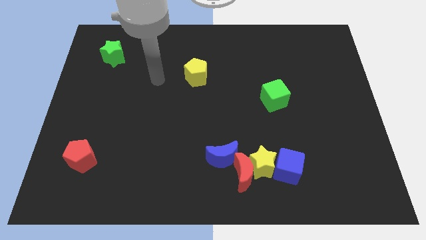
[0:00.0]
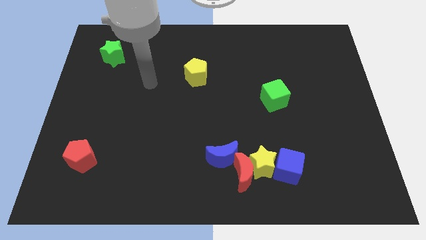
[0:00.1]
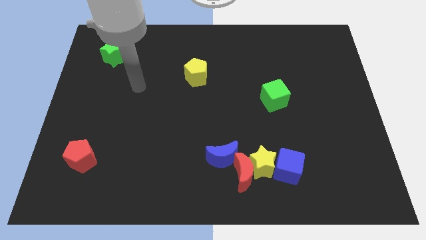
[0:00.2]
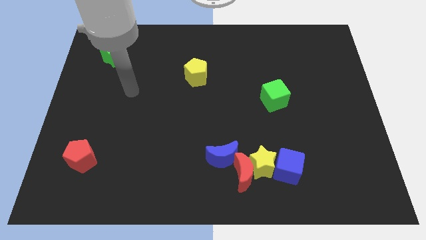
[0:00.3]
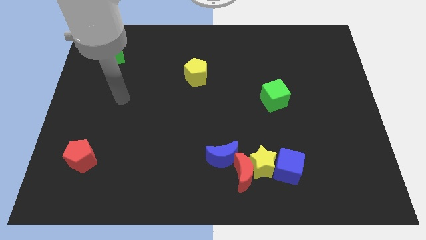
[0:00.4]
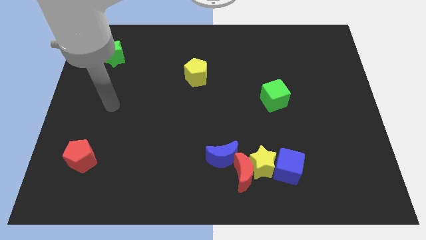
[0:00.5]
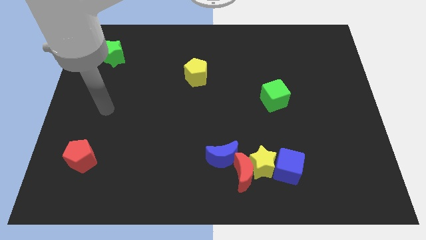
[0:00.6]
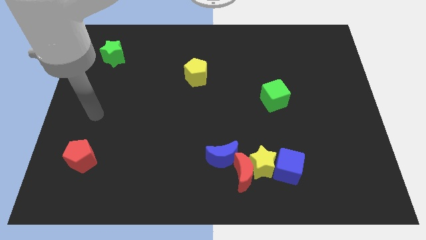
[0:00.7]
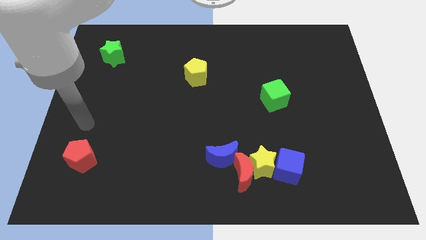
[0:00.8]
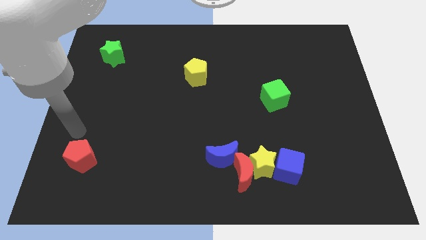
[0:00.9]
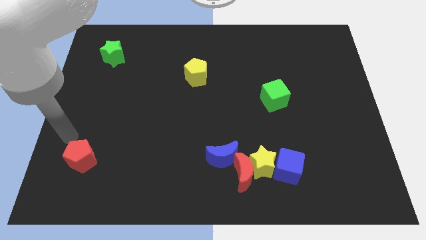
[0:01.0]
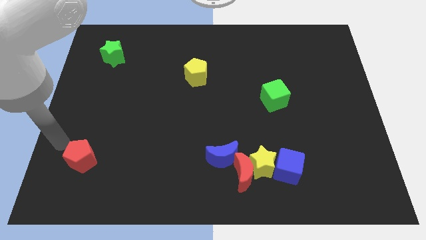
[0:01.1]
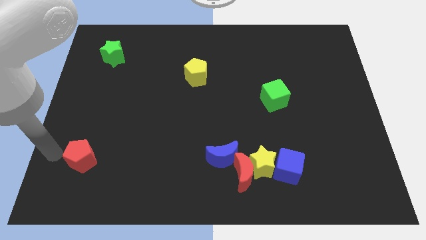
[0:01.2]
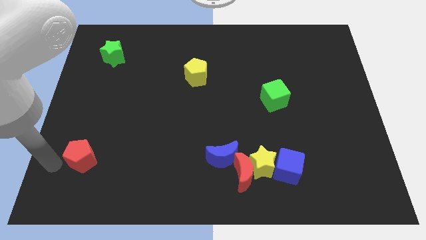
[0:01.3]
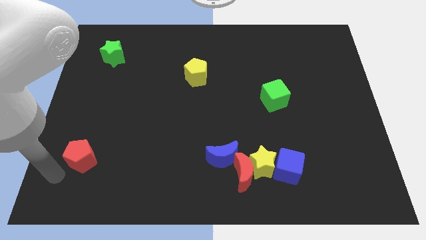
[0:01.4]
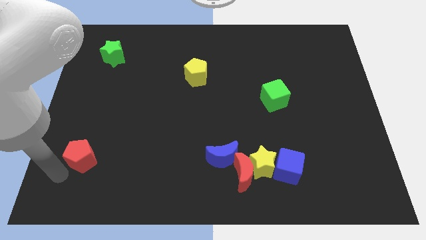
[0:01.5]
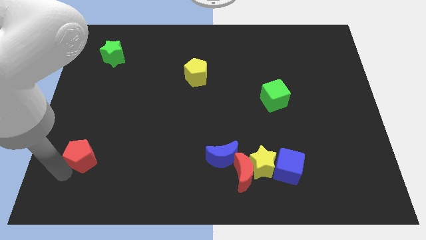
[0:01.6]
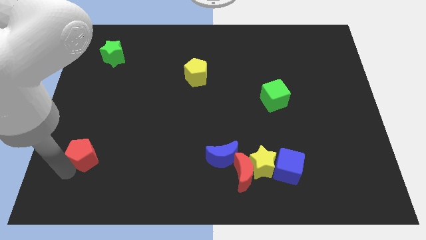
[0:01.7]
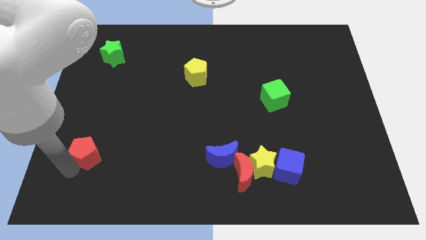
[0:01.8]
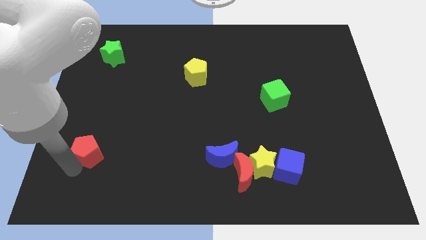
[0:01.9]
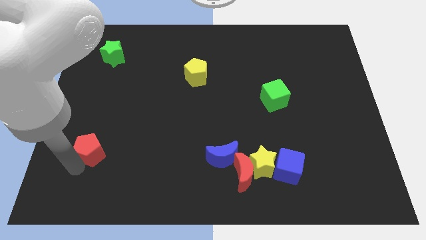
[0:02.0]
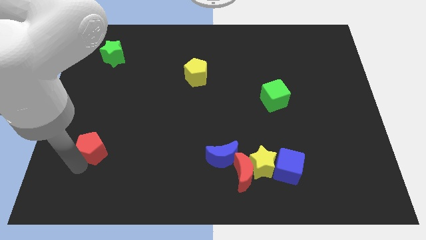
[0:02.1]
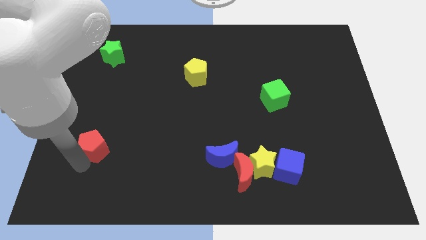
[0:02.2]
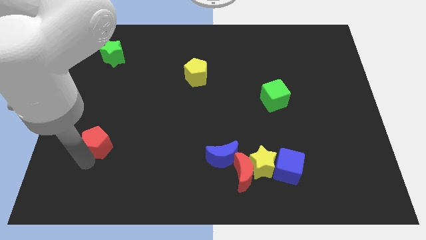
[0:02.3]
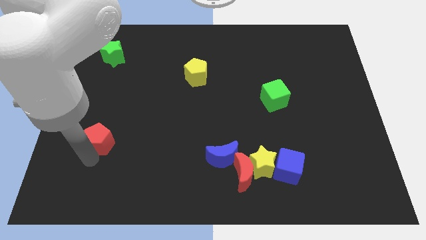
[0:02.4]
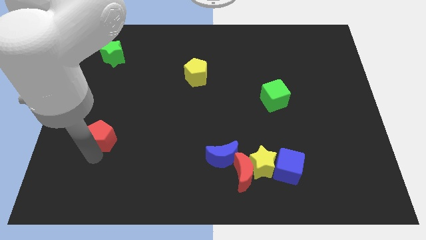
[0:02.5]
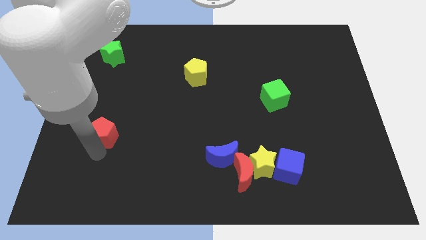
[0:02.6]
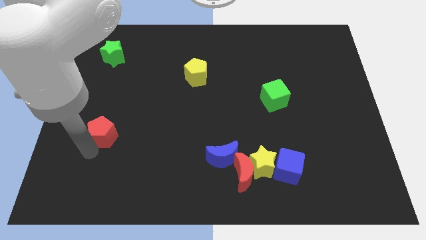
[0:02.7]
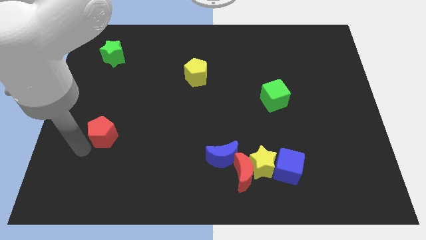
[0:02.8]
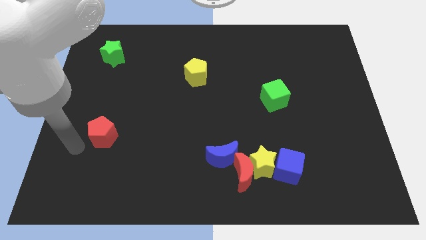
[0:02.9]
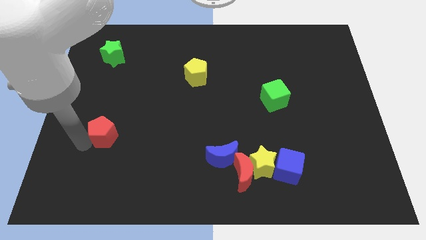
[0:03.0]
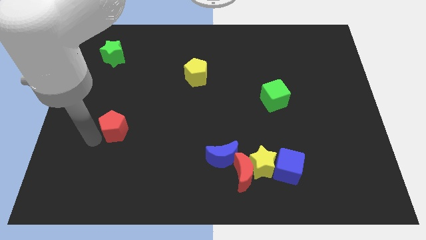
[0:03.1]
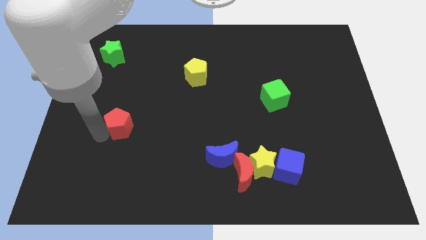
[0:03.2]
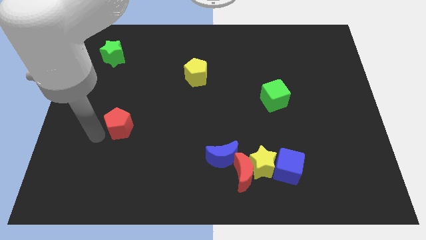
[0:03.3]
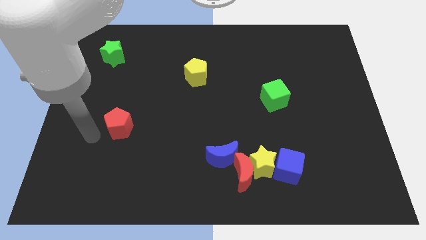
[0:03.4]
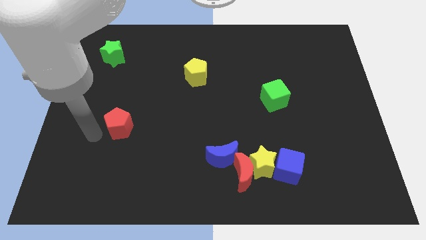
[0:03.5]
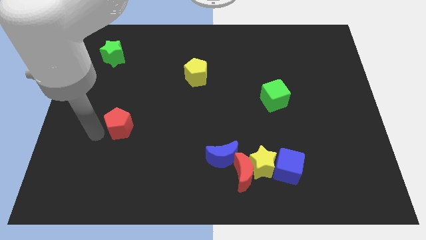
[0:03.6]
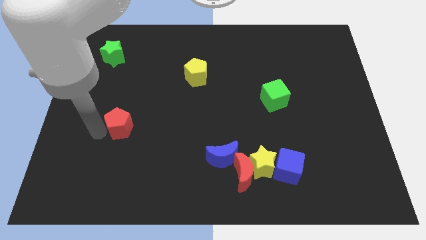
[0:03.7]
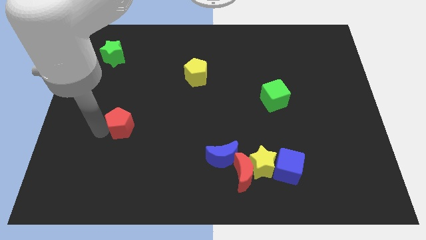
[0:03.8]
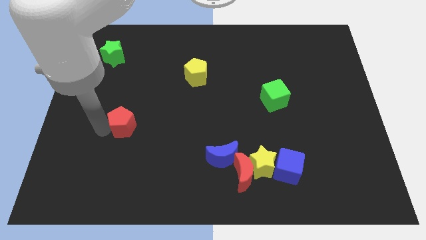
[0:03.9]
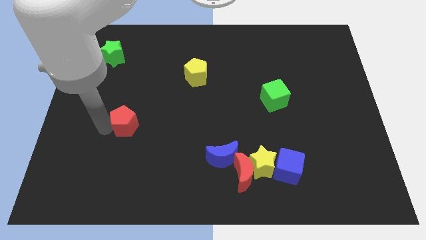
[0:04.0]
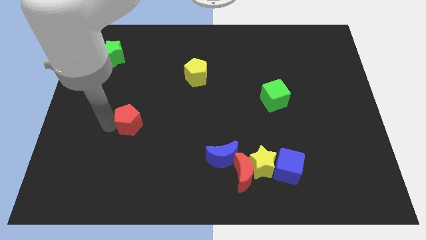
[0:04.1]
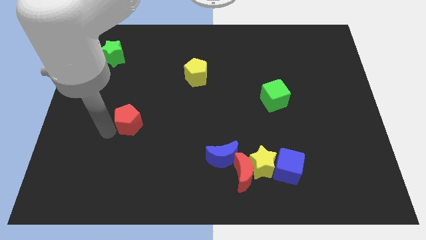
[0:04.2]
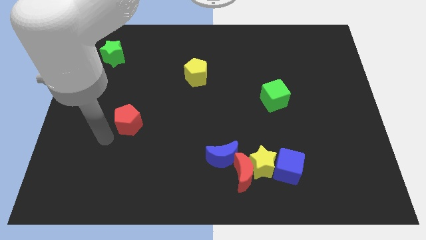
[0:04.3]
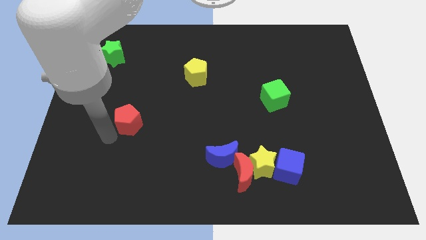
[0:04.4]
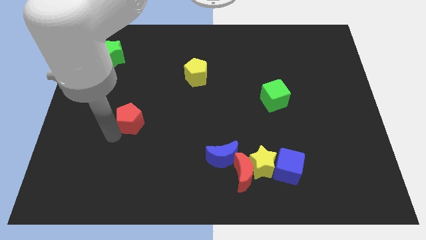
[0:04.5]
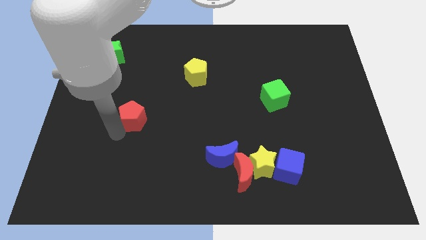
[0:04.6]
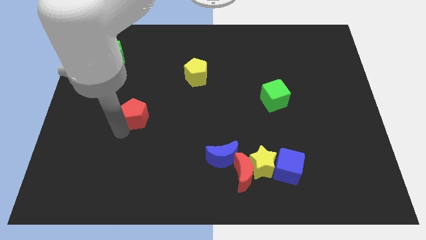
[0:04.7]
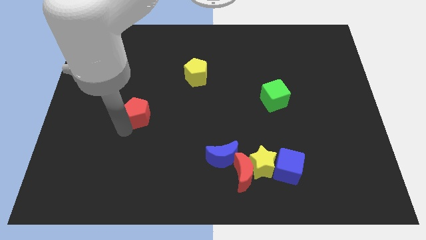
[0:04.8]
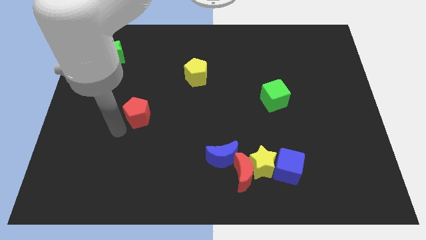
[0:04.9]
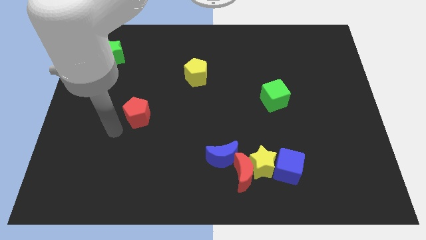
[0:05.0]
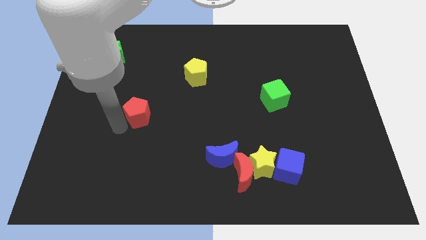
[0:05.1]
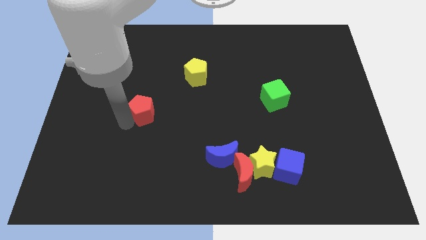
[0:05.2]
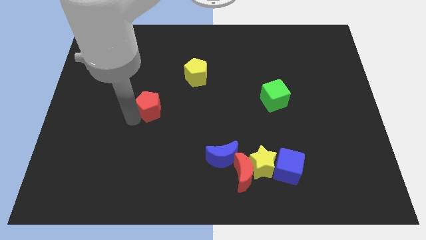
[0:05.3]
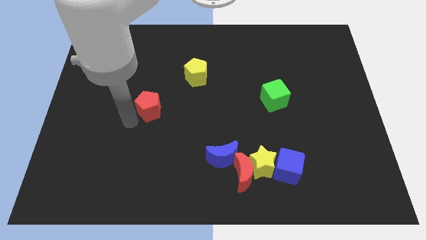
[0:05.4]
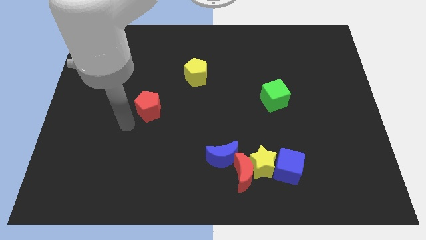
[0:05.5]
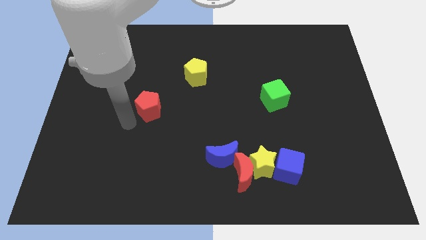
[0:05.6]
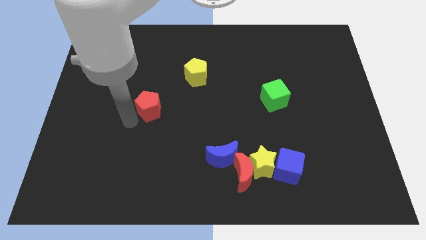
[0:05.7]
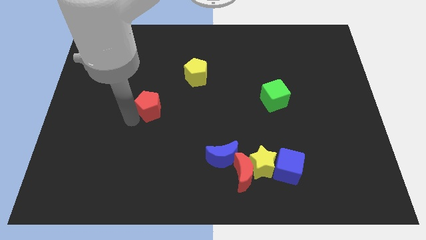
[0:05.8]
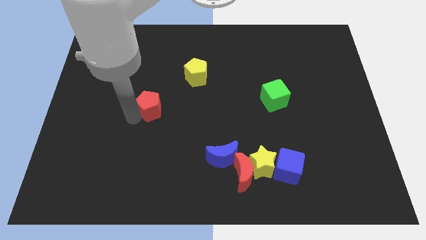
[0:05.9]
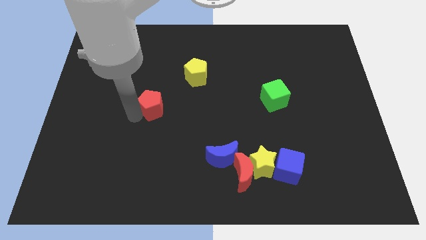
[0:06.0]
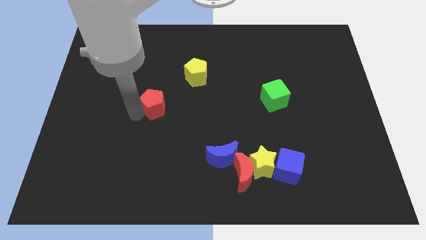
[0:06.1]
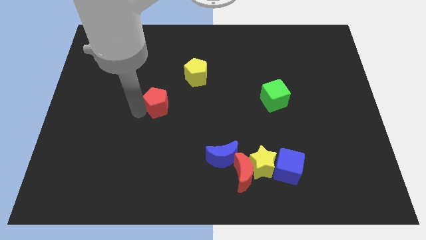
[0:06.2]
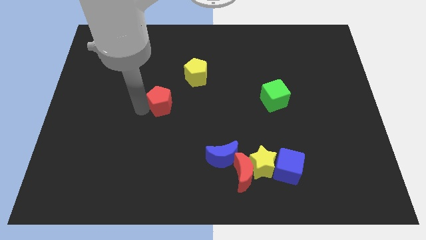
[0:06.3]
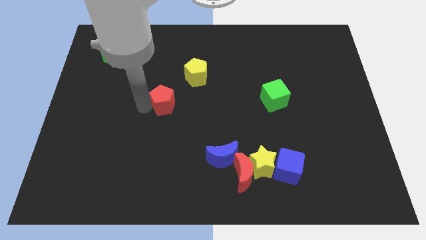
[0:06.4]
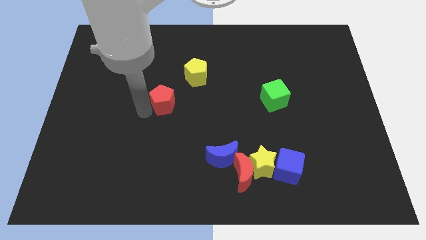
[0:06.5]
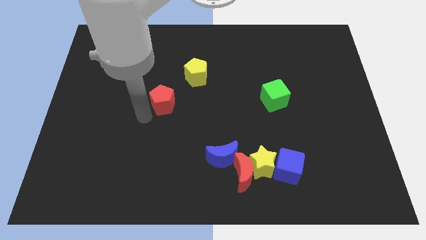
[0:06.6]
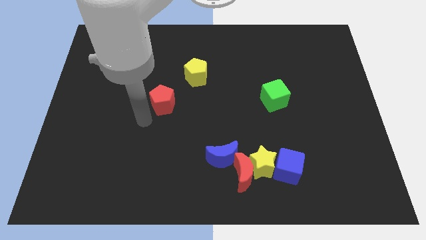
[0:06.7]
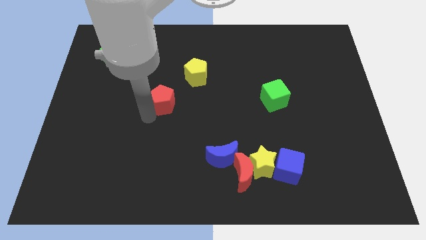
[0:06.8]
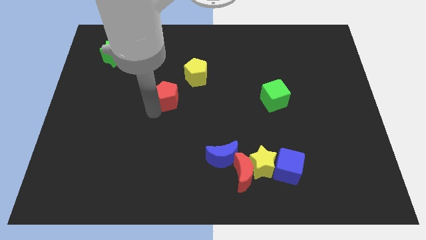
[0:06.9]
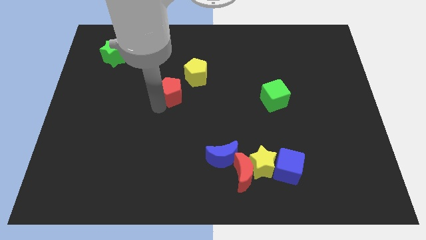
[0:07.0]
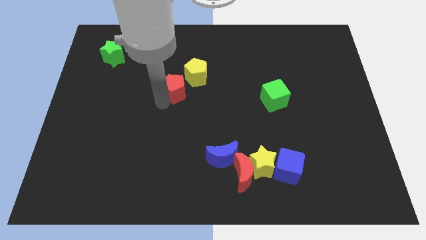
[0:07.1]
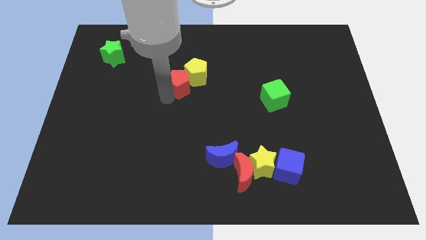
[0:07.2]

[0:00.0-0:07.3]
push the red pentagon close to the yellow pentagon
